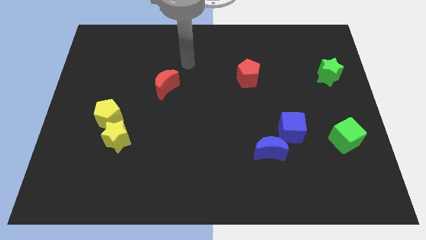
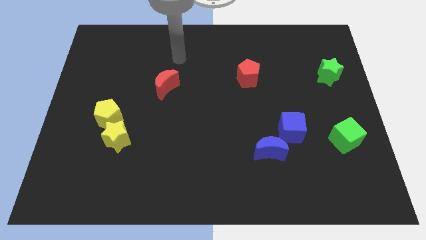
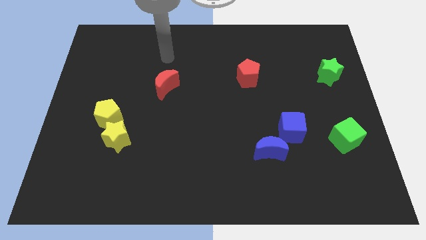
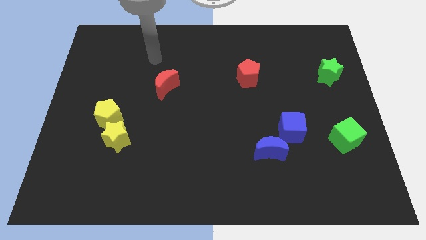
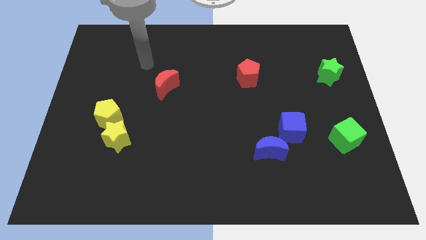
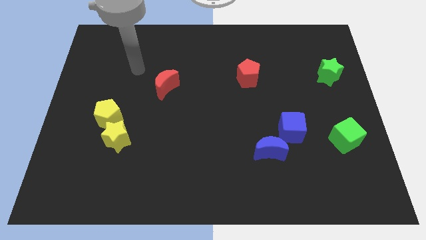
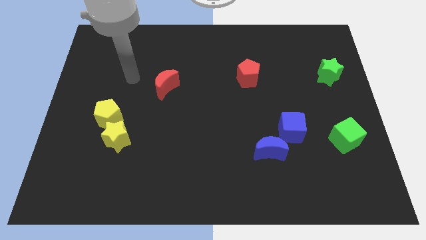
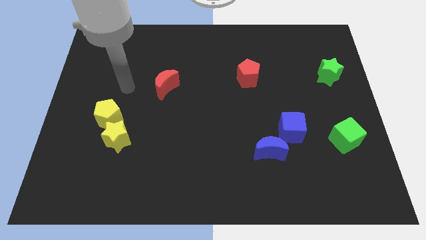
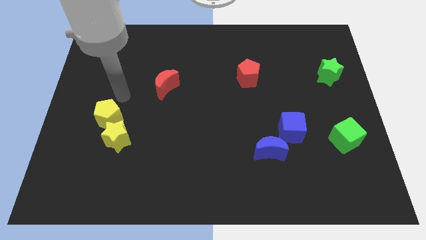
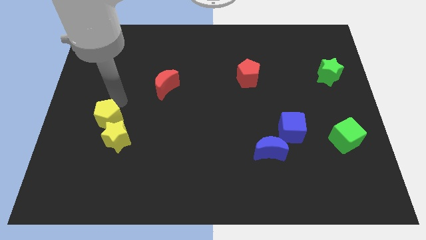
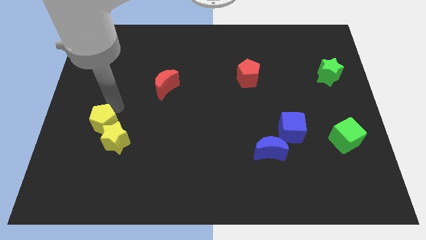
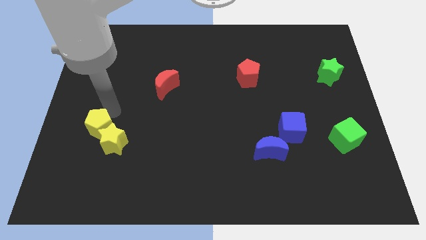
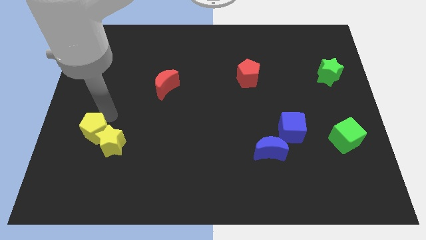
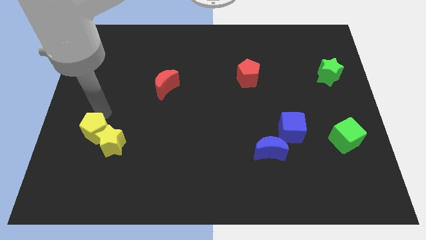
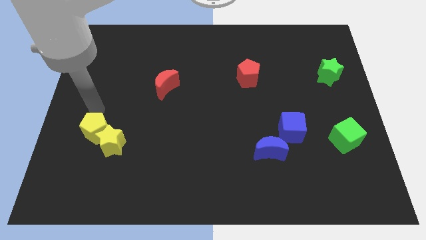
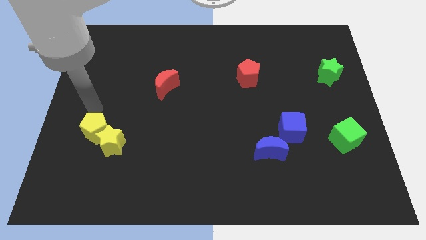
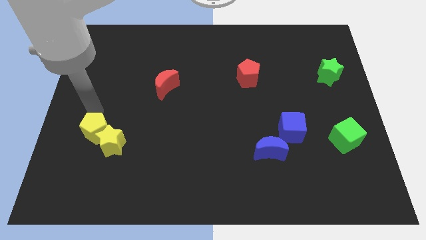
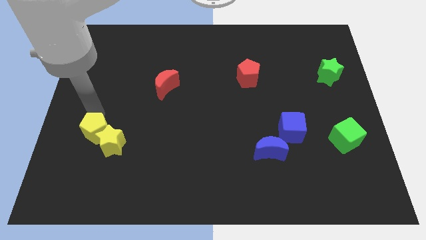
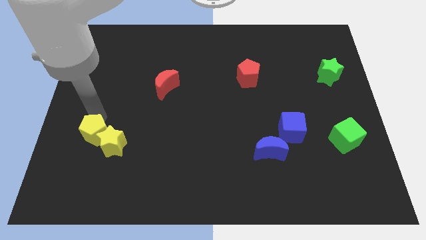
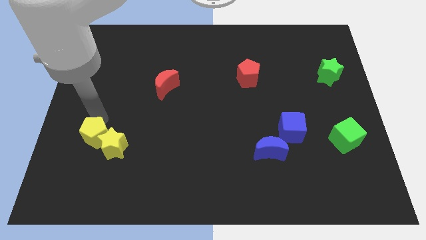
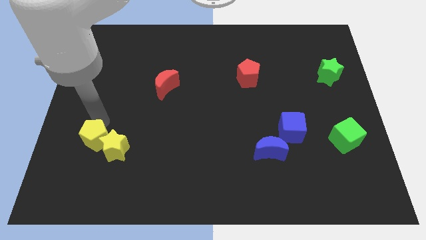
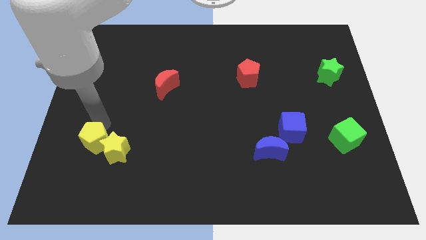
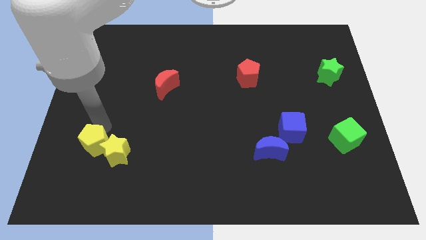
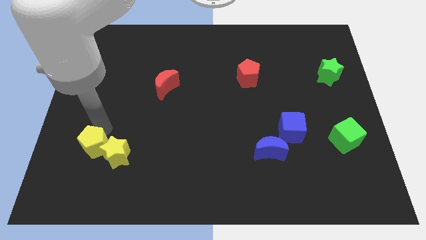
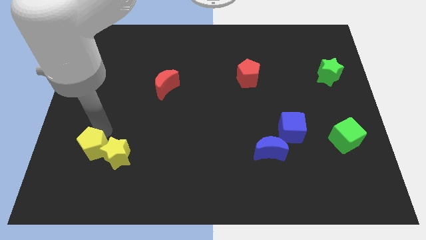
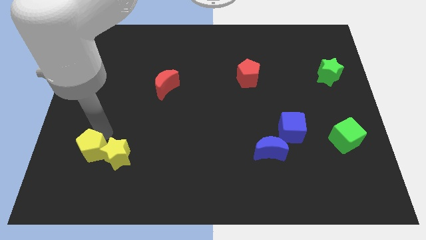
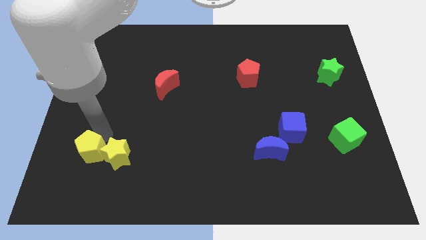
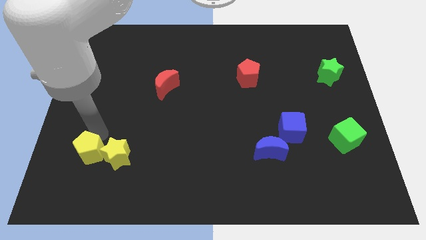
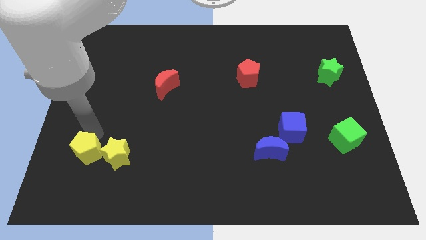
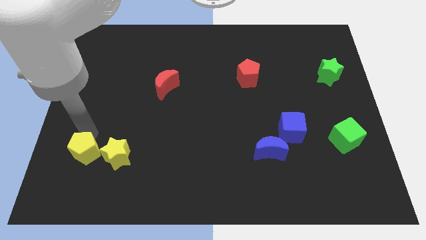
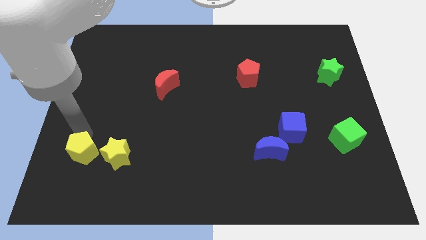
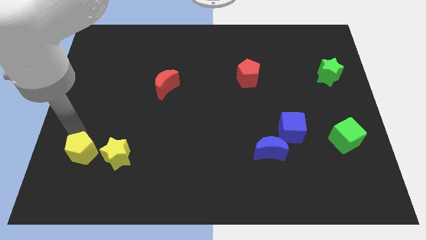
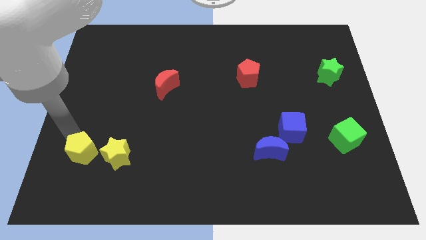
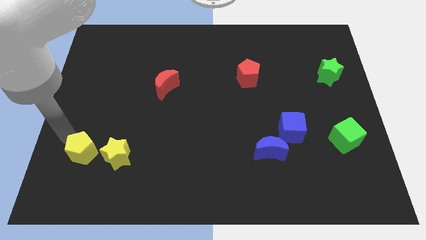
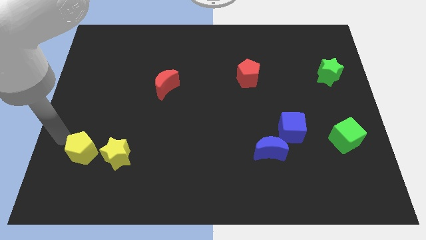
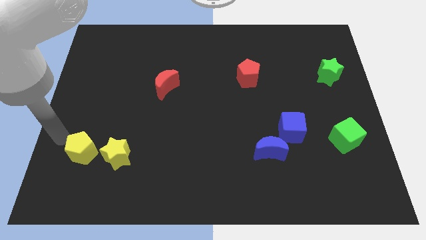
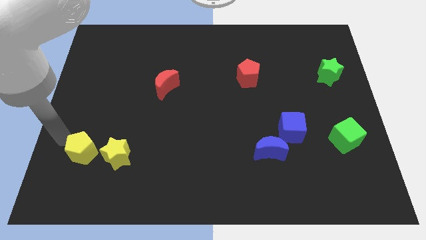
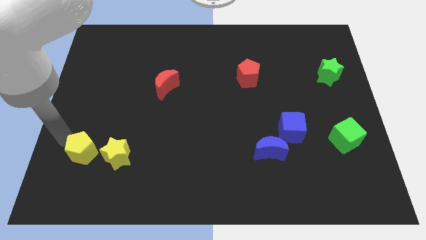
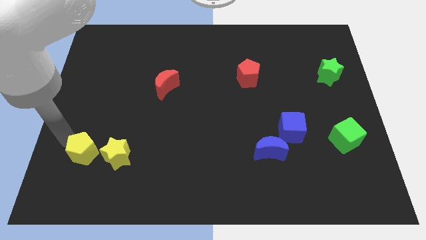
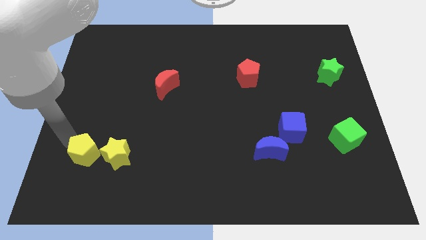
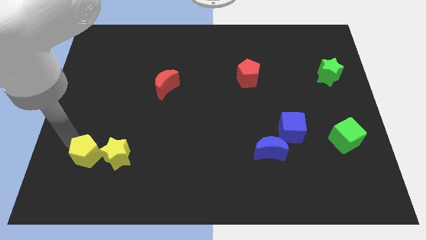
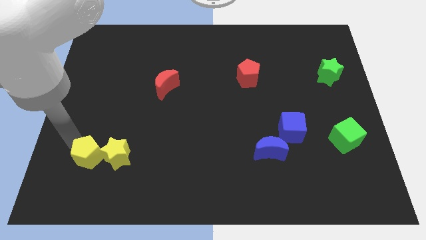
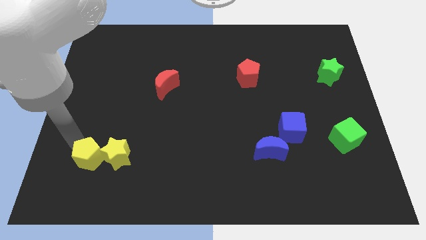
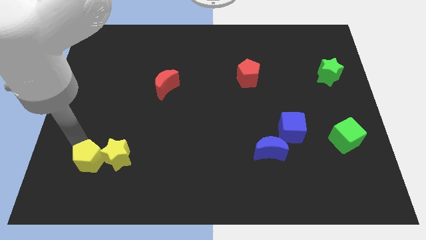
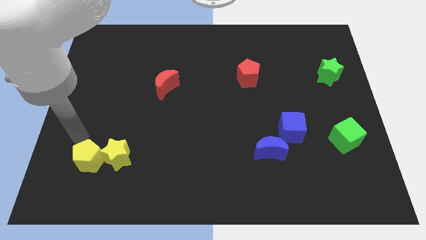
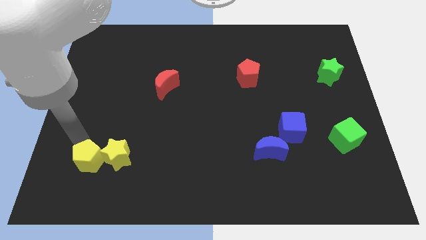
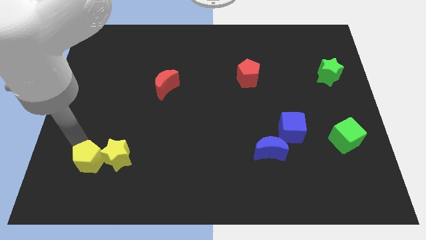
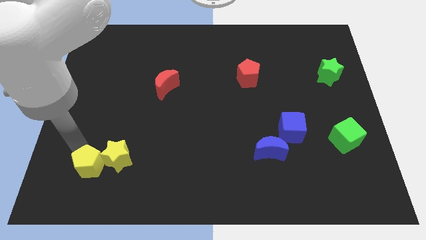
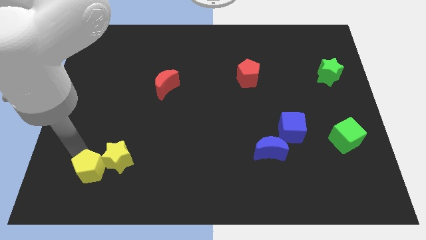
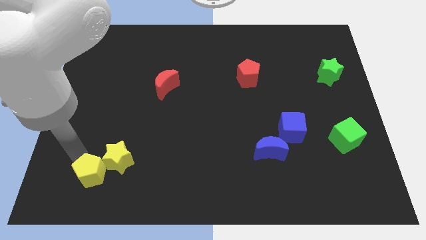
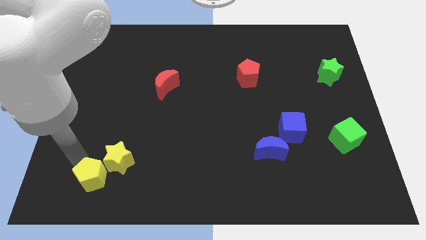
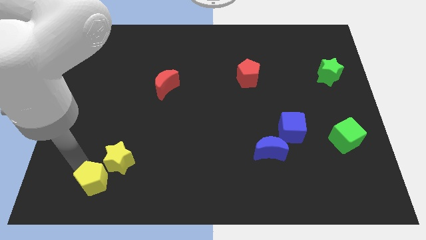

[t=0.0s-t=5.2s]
slide the yellow pentagon below the yellow star

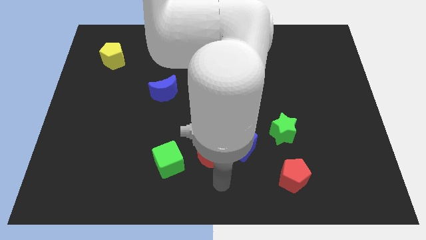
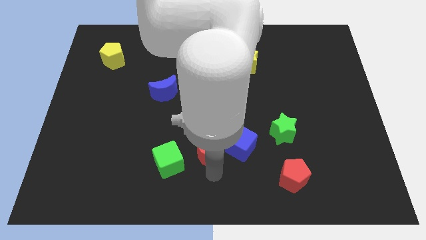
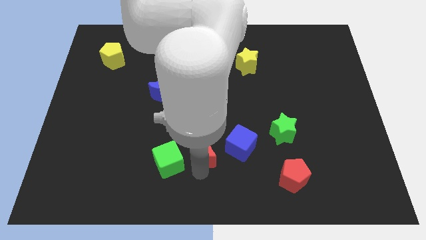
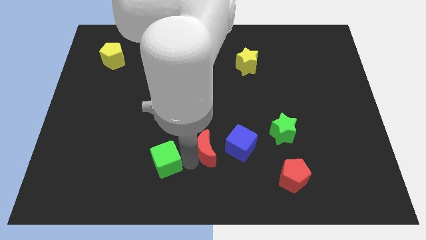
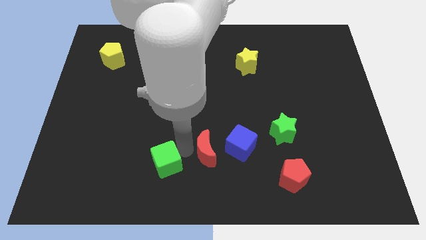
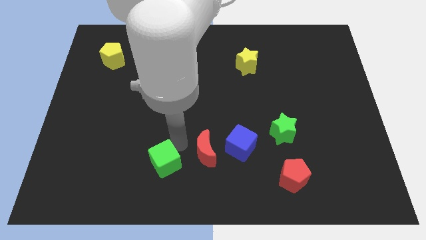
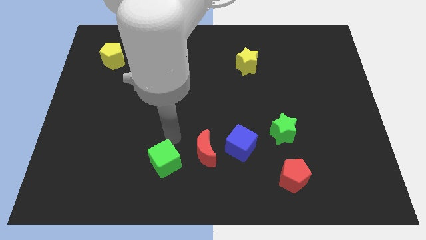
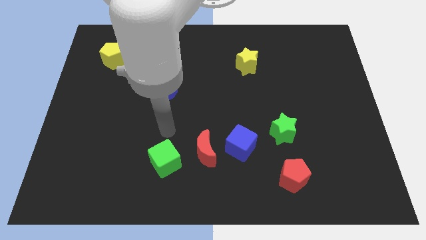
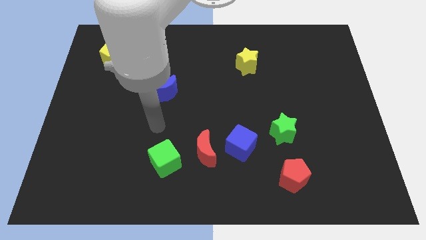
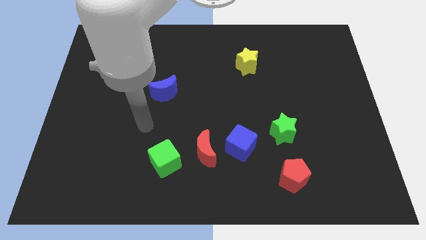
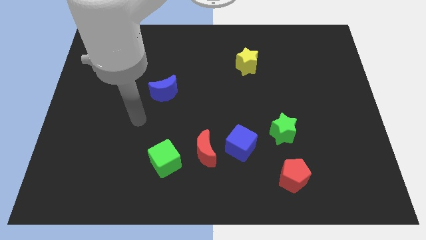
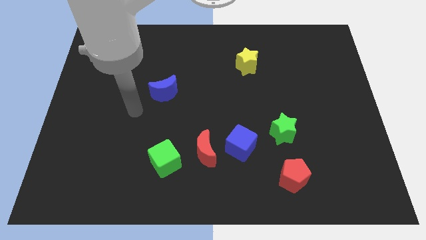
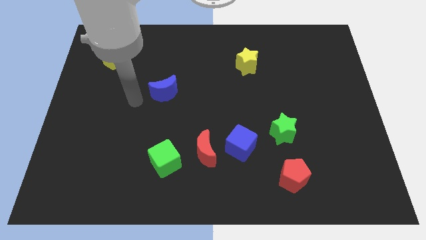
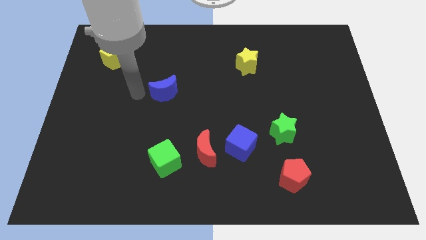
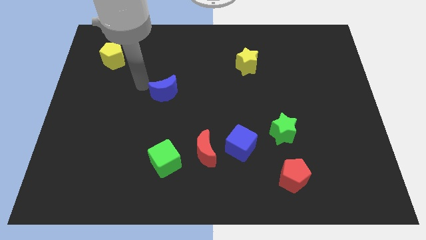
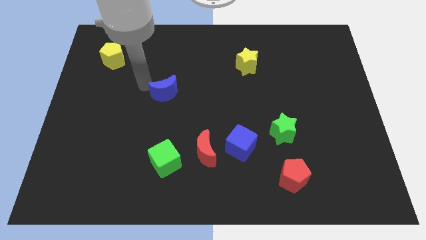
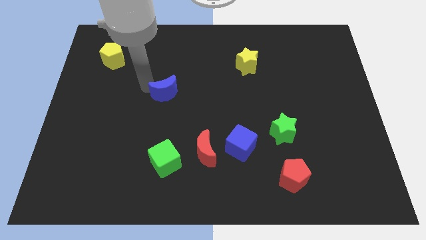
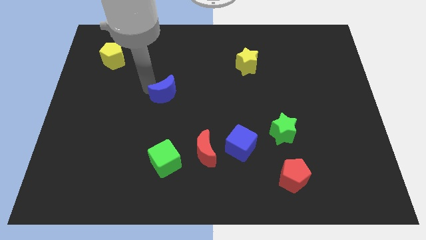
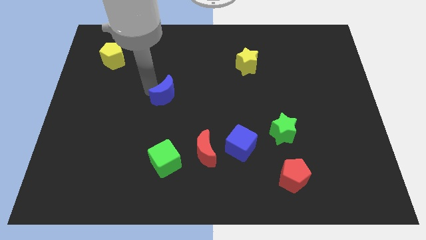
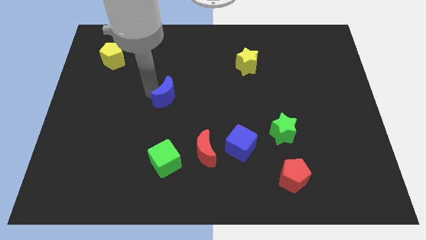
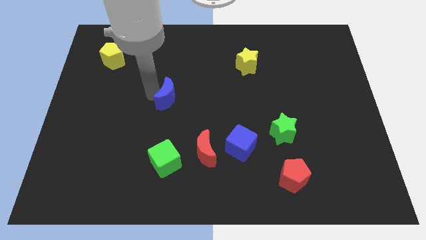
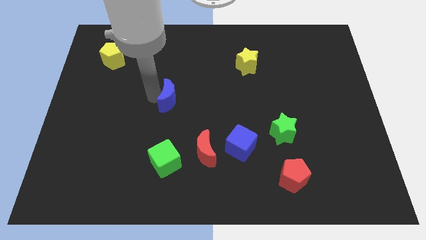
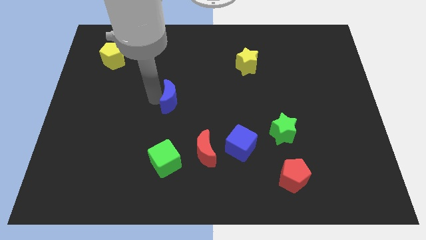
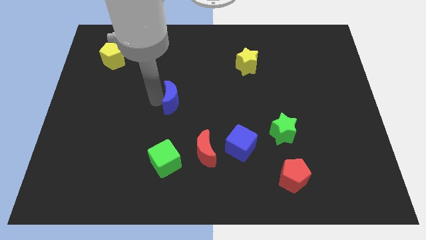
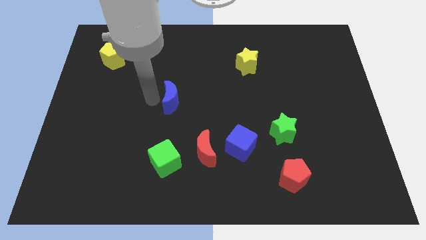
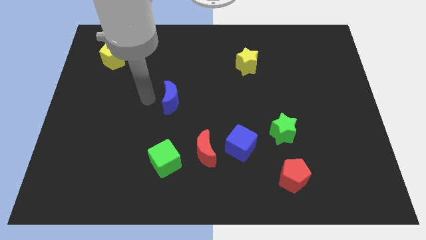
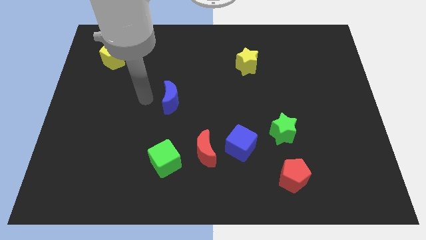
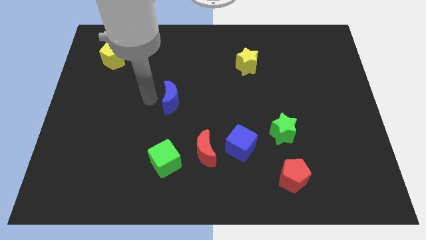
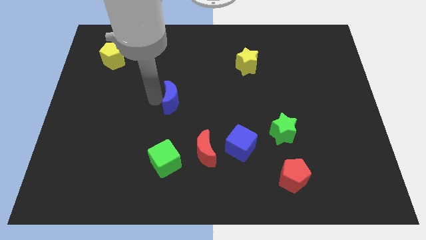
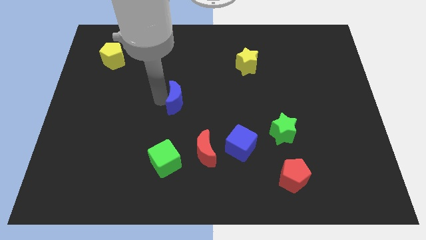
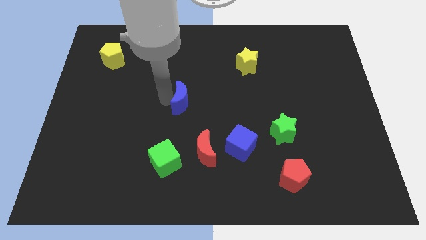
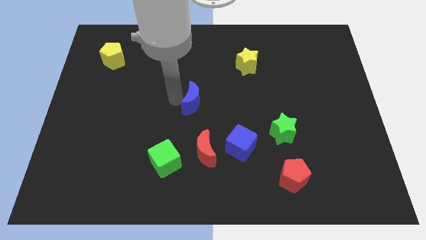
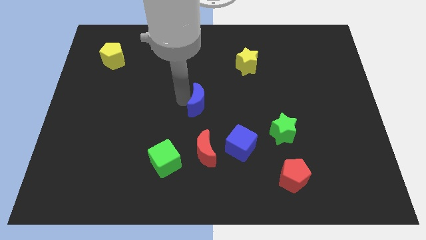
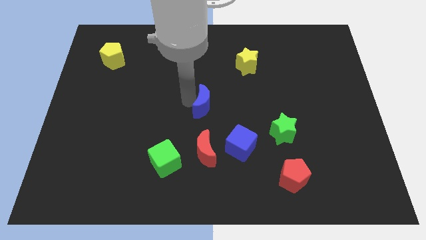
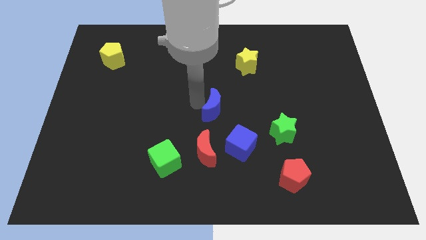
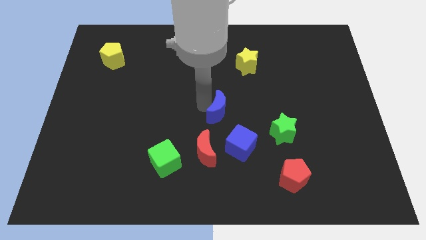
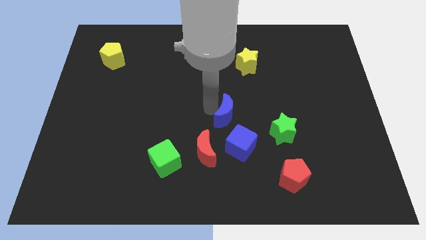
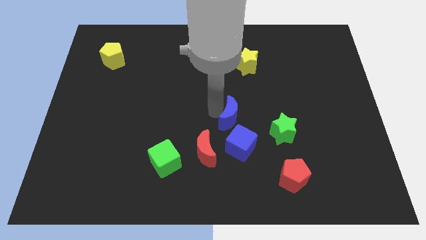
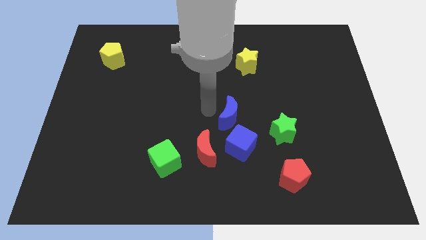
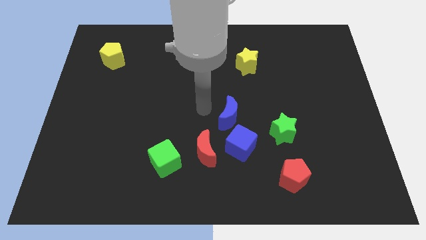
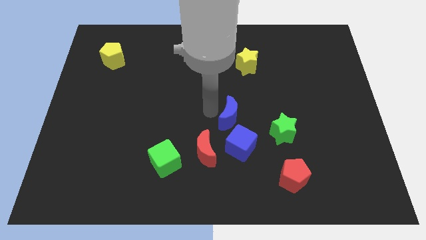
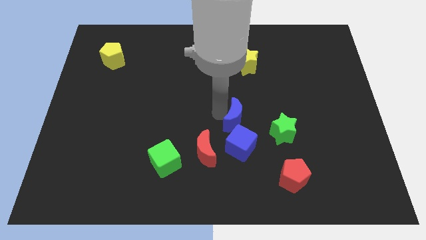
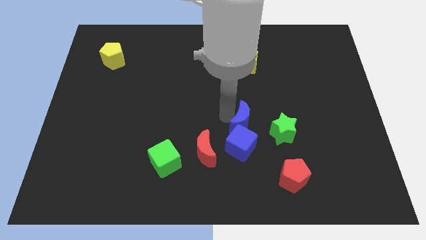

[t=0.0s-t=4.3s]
push the blue moon to the top right side of the blue cube
